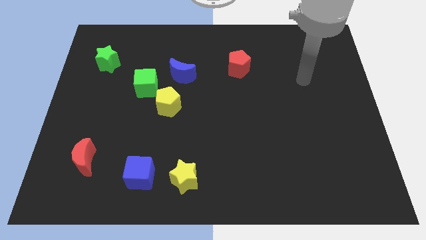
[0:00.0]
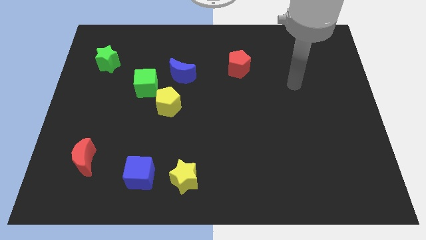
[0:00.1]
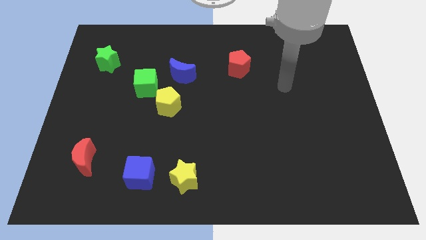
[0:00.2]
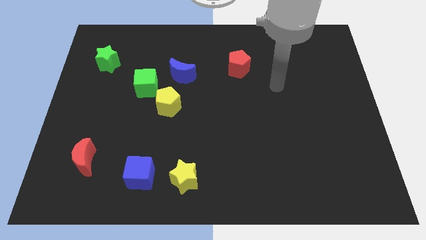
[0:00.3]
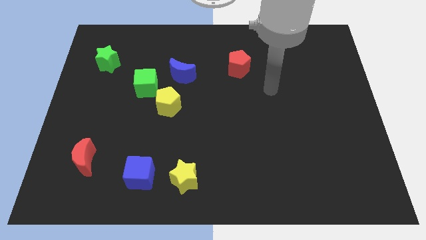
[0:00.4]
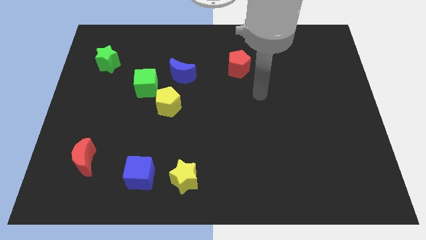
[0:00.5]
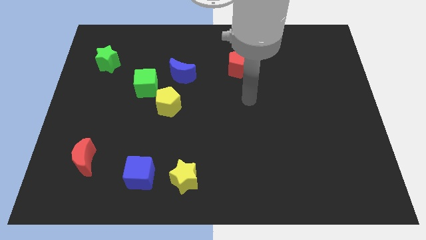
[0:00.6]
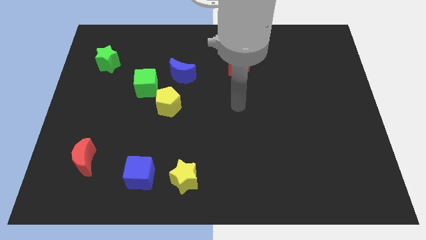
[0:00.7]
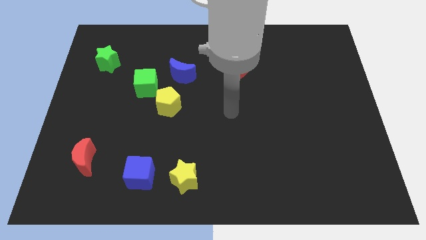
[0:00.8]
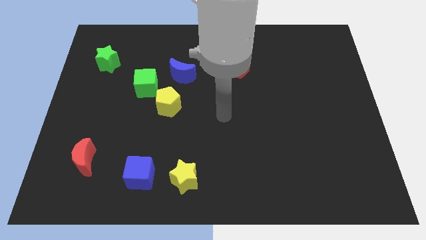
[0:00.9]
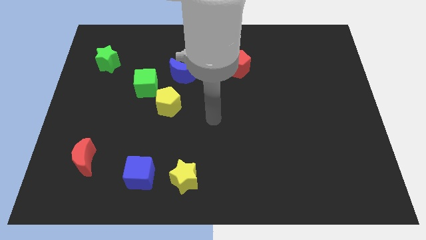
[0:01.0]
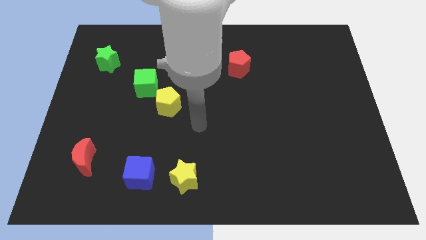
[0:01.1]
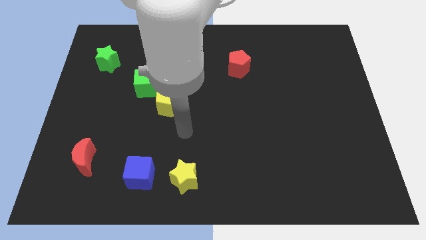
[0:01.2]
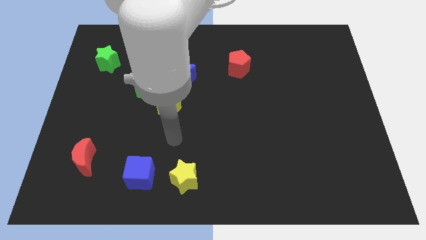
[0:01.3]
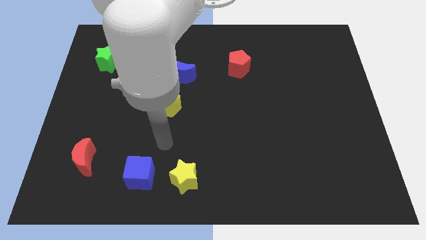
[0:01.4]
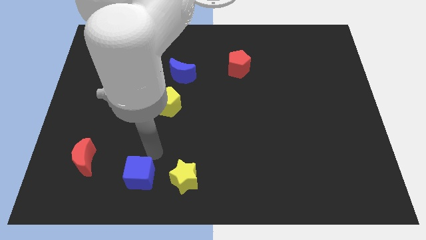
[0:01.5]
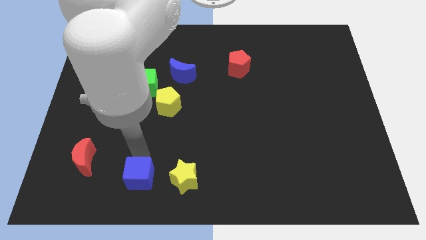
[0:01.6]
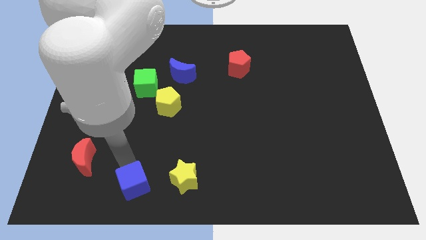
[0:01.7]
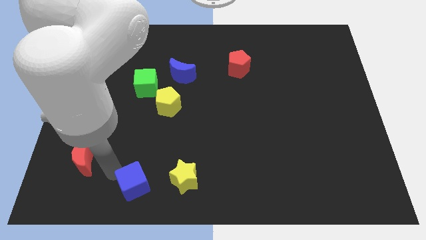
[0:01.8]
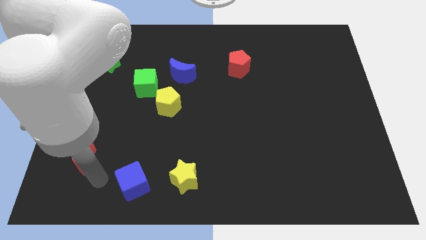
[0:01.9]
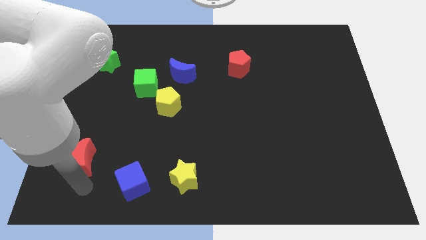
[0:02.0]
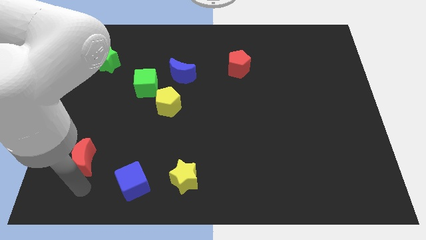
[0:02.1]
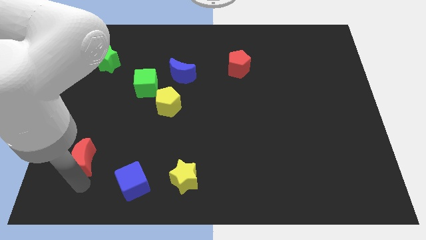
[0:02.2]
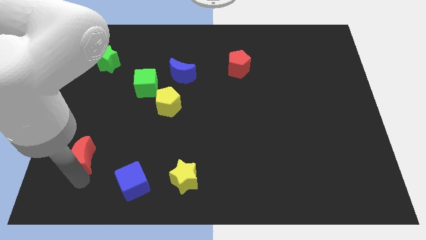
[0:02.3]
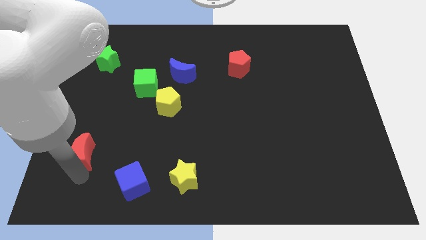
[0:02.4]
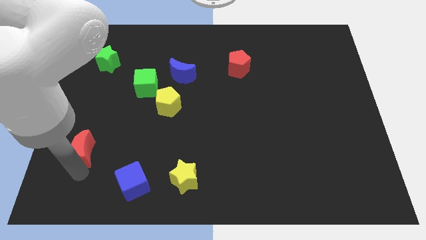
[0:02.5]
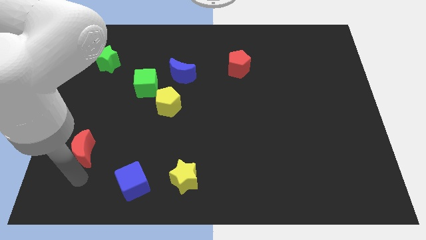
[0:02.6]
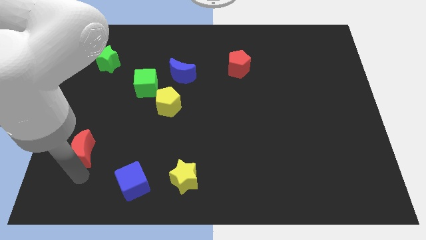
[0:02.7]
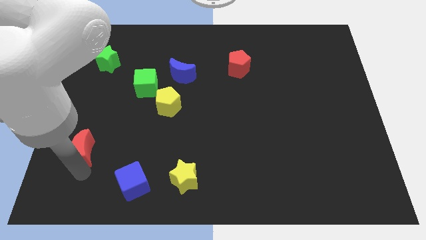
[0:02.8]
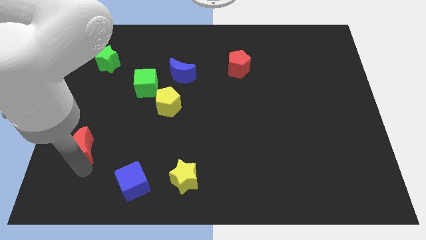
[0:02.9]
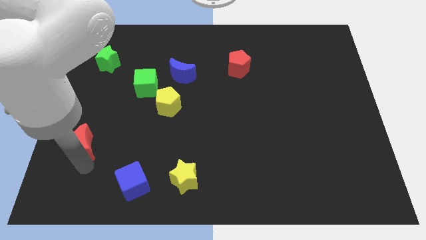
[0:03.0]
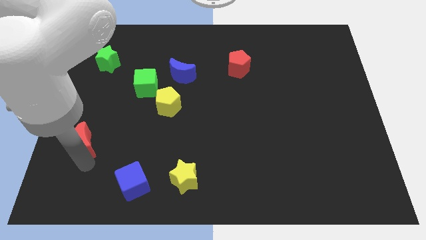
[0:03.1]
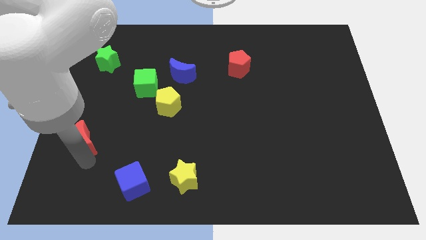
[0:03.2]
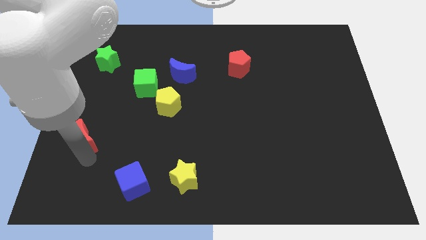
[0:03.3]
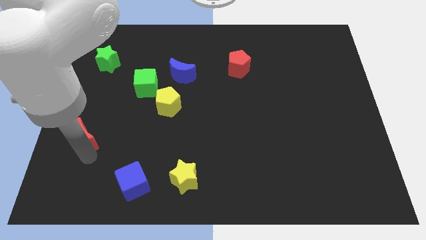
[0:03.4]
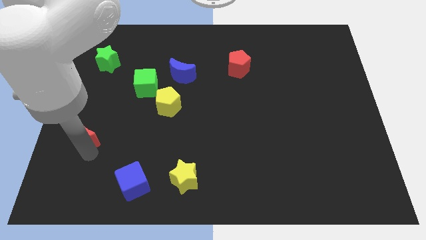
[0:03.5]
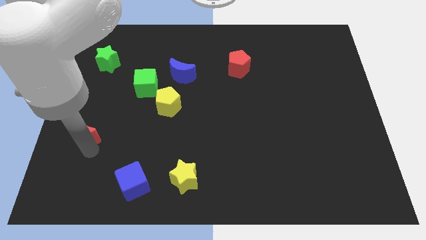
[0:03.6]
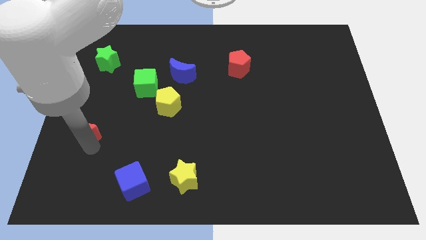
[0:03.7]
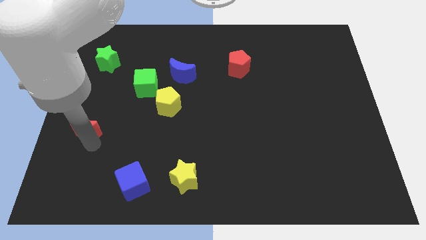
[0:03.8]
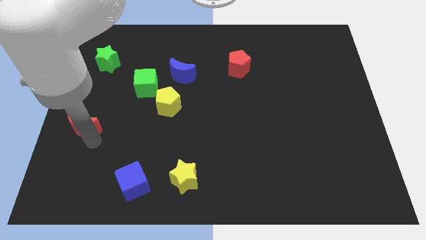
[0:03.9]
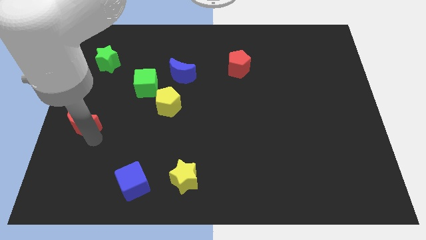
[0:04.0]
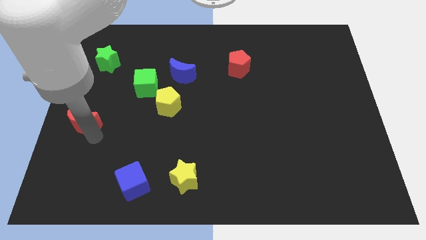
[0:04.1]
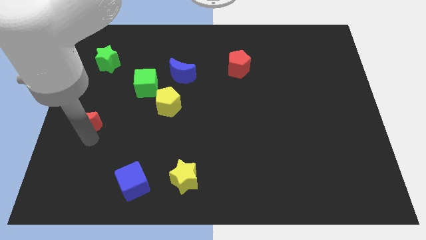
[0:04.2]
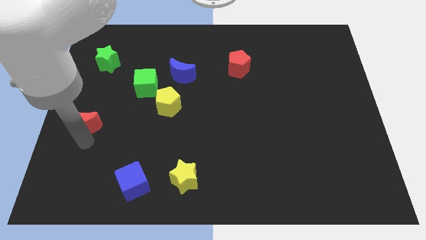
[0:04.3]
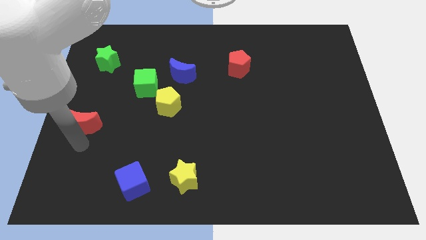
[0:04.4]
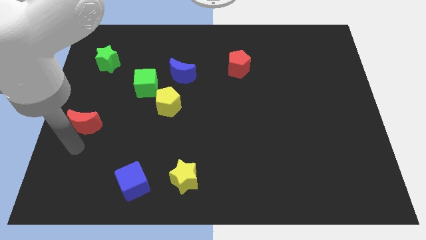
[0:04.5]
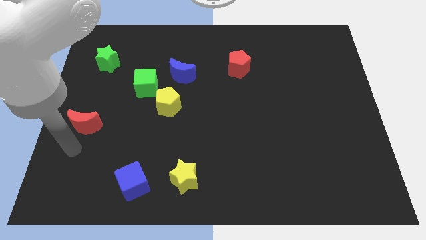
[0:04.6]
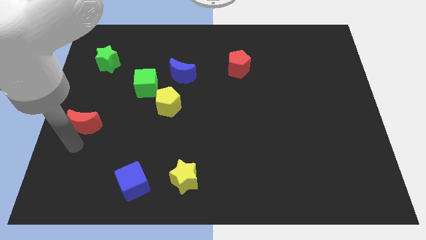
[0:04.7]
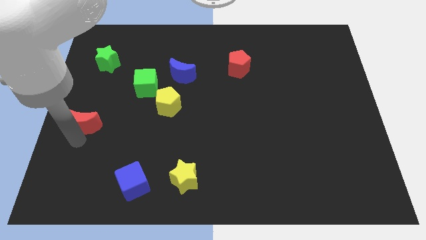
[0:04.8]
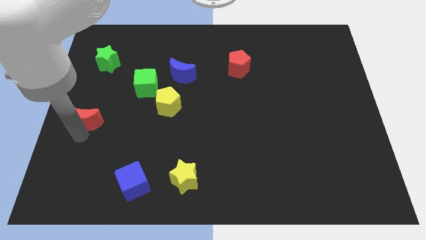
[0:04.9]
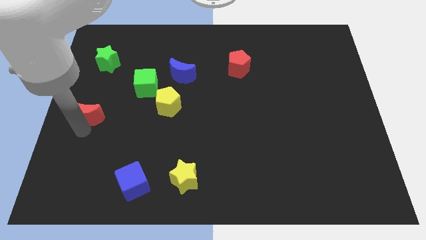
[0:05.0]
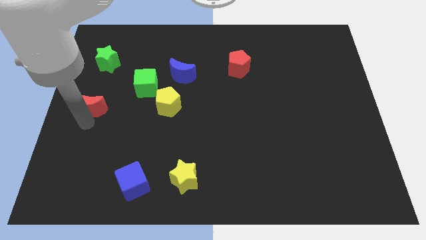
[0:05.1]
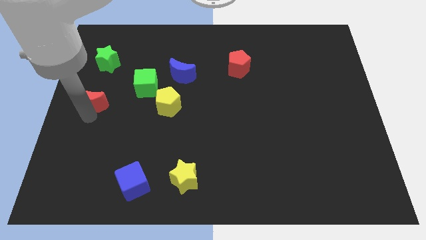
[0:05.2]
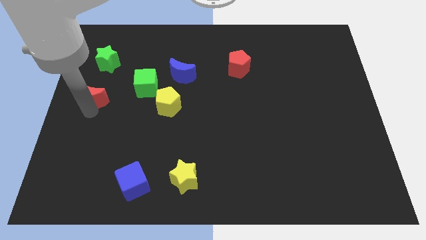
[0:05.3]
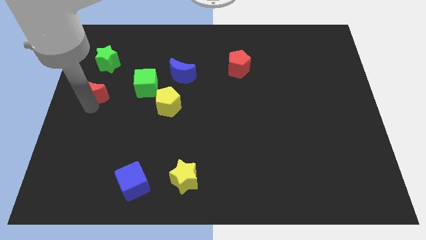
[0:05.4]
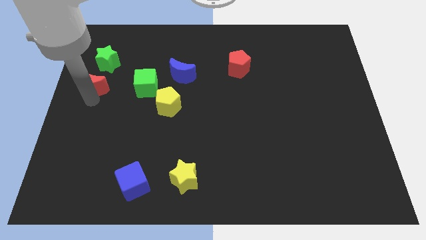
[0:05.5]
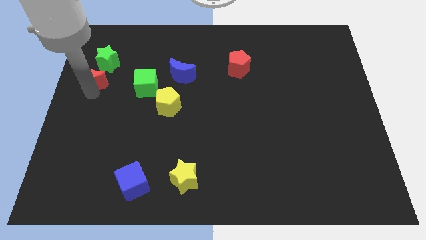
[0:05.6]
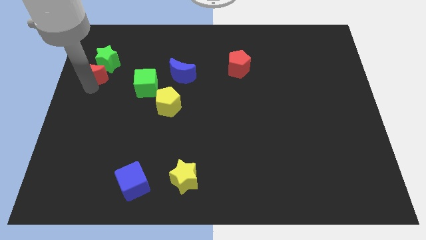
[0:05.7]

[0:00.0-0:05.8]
push the red moon towards the green star
